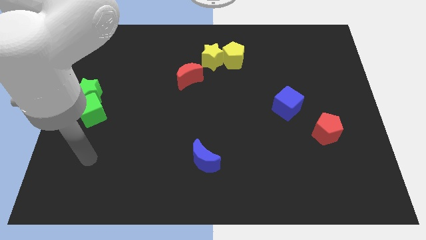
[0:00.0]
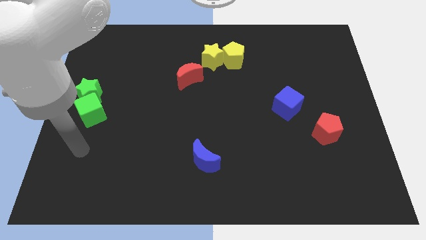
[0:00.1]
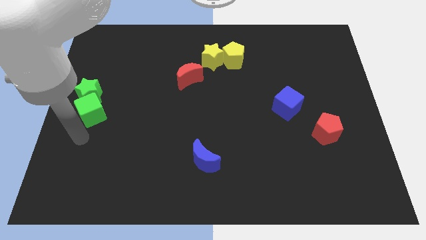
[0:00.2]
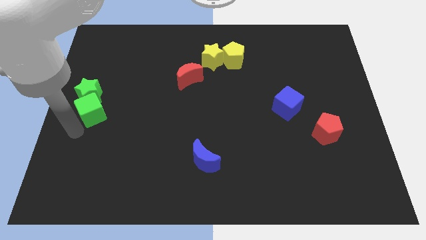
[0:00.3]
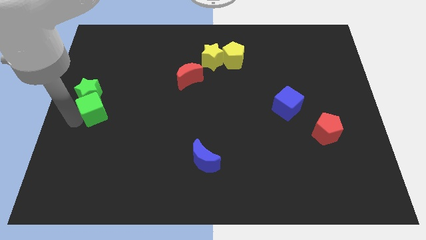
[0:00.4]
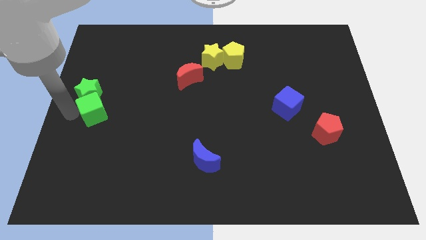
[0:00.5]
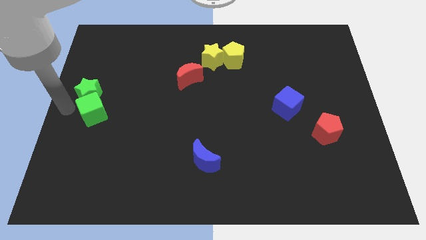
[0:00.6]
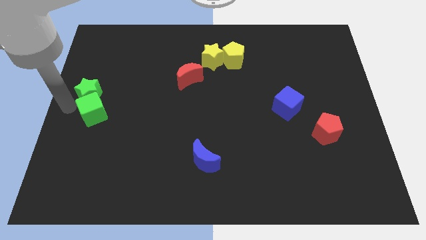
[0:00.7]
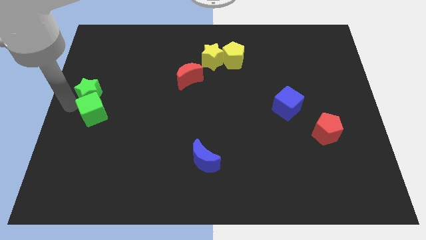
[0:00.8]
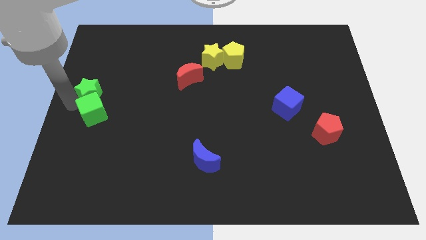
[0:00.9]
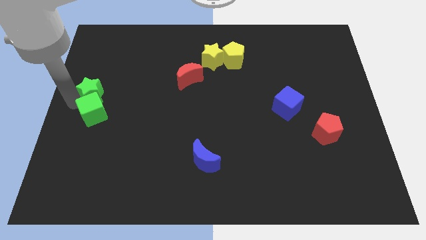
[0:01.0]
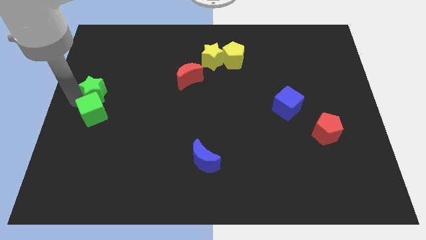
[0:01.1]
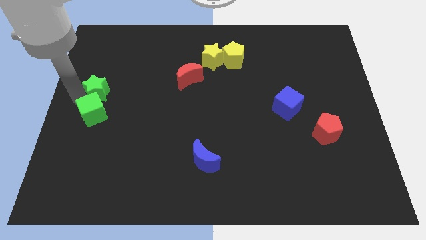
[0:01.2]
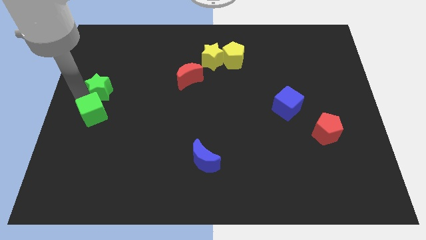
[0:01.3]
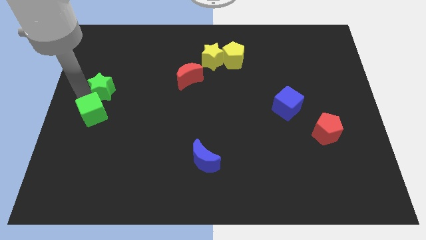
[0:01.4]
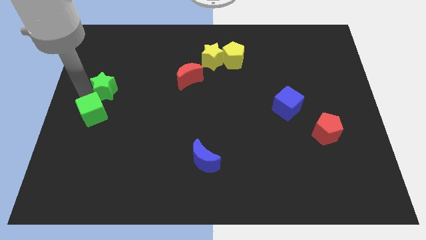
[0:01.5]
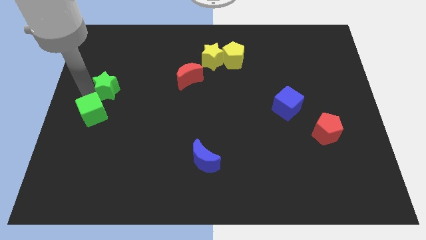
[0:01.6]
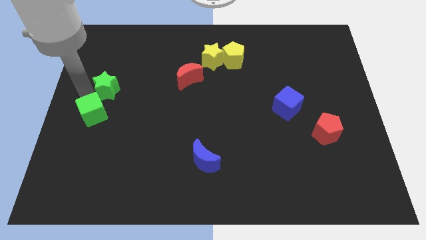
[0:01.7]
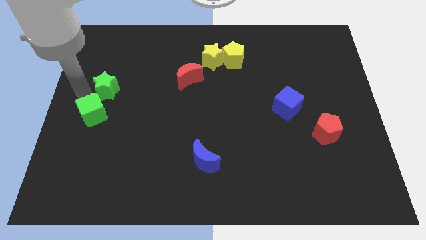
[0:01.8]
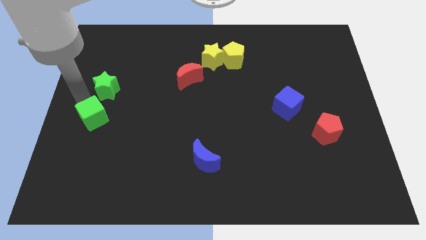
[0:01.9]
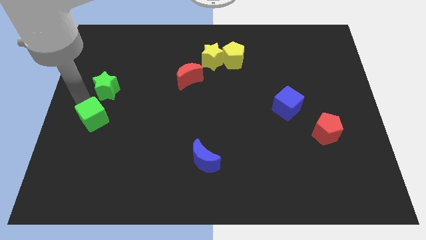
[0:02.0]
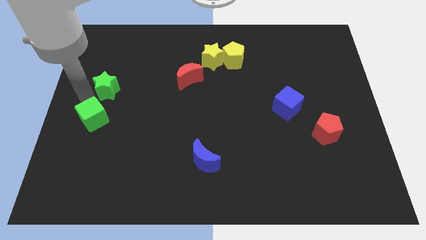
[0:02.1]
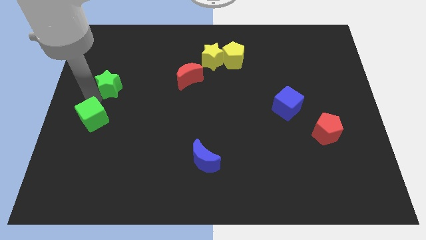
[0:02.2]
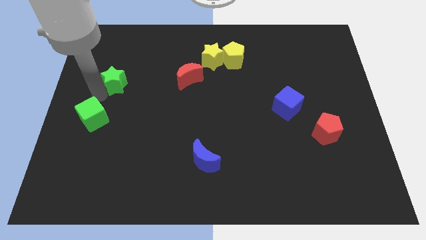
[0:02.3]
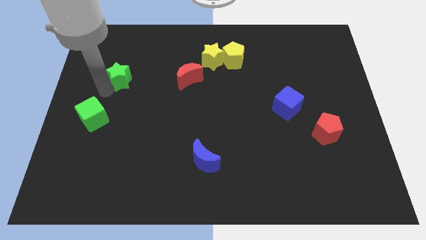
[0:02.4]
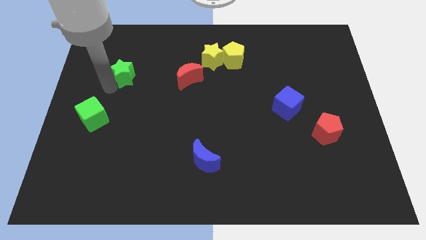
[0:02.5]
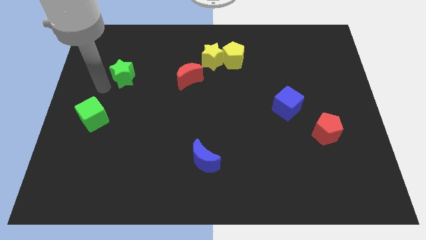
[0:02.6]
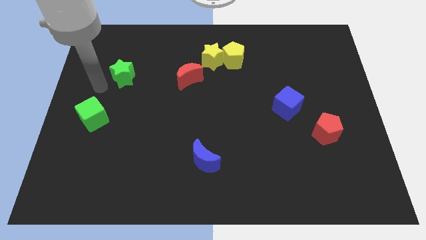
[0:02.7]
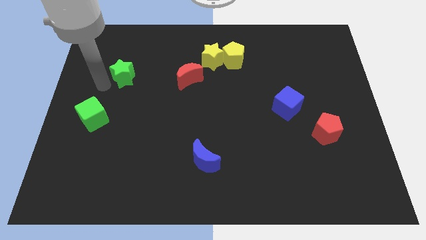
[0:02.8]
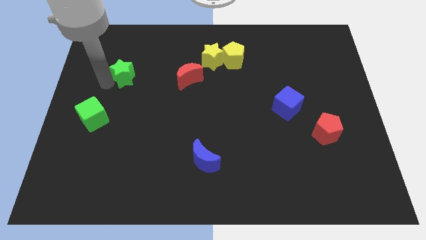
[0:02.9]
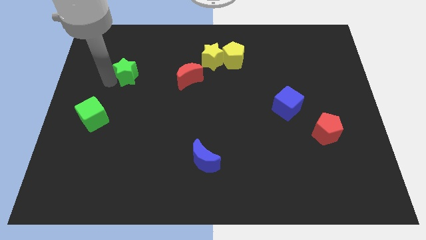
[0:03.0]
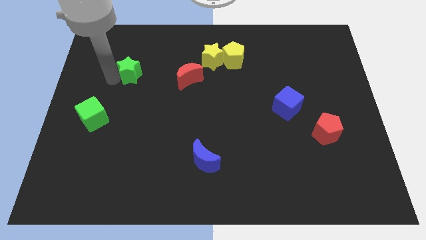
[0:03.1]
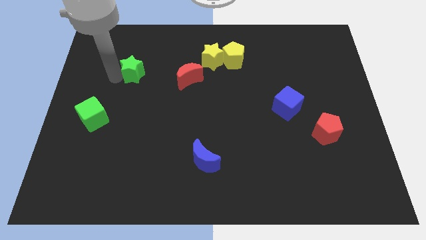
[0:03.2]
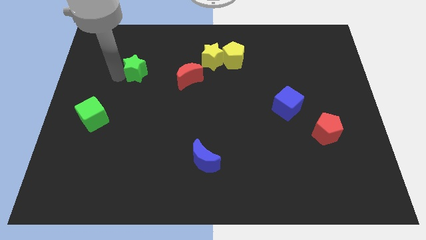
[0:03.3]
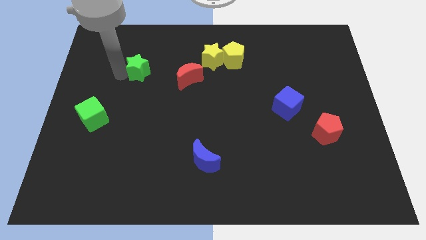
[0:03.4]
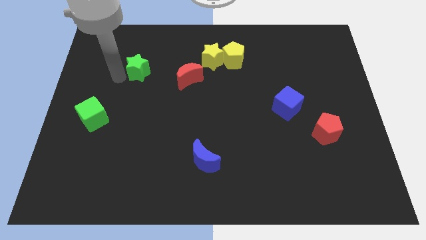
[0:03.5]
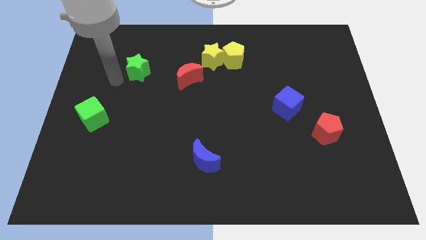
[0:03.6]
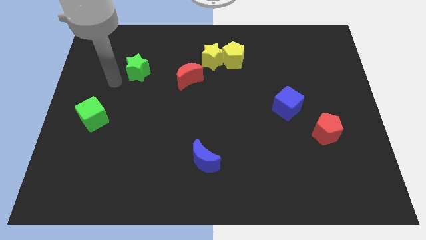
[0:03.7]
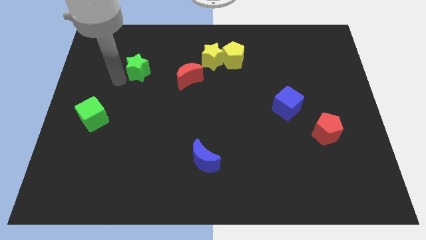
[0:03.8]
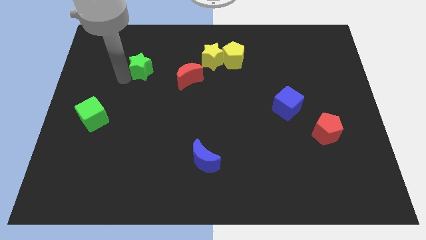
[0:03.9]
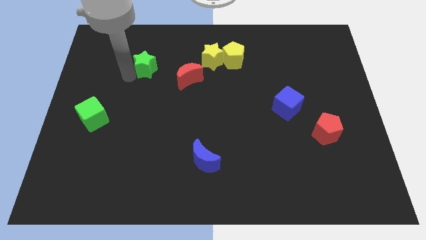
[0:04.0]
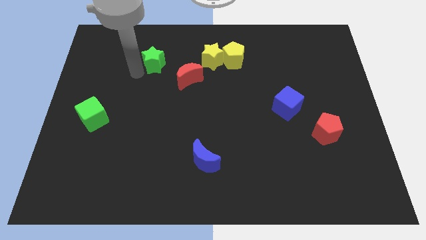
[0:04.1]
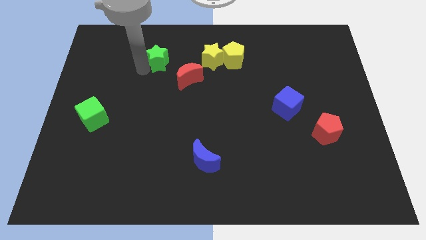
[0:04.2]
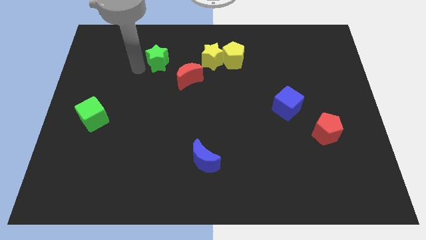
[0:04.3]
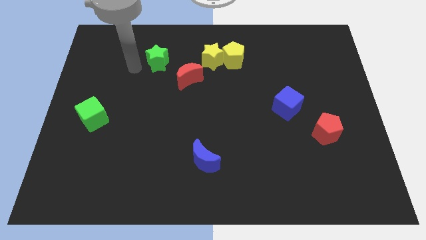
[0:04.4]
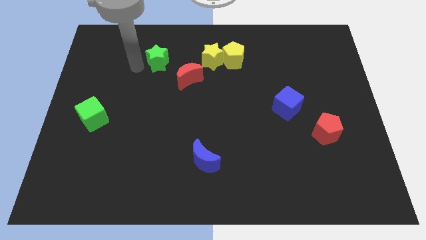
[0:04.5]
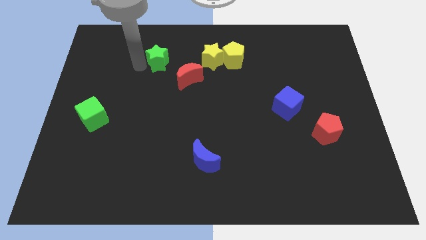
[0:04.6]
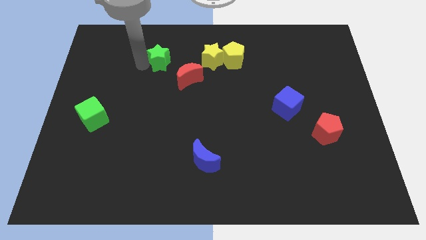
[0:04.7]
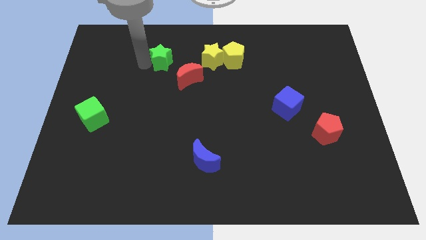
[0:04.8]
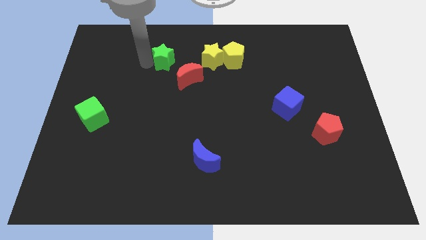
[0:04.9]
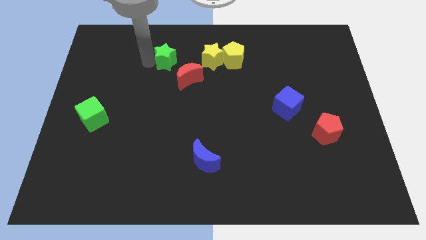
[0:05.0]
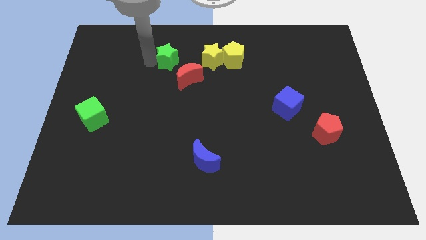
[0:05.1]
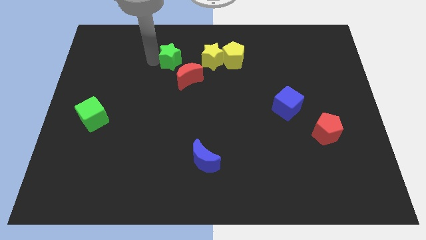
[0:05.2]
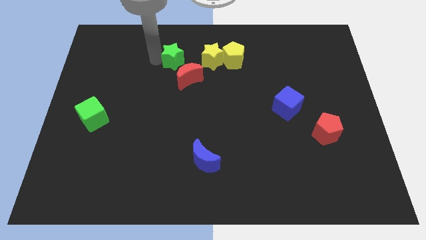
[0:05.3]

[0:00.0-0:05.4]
slide the green star just left of the yellow pentagon
